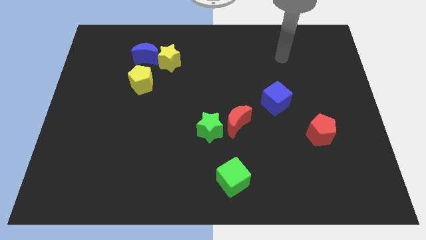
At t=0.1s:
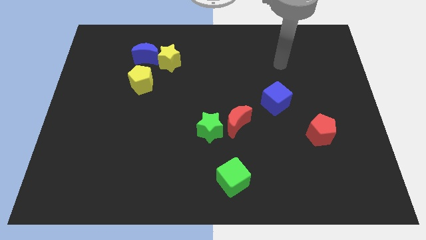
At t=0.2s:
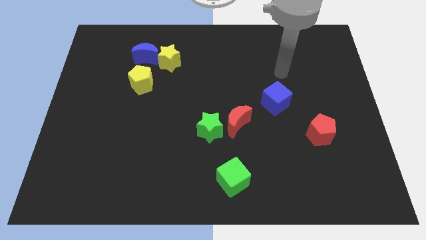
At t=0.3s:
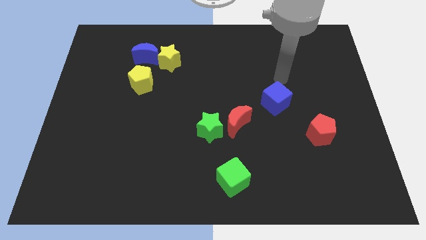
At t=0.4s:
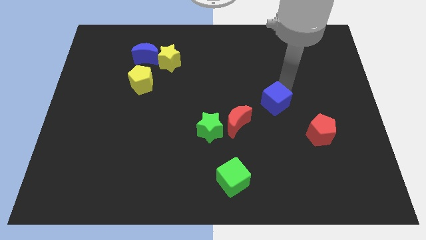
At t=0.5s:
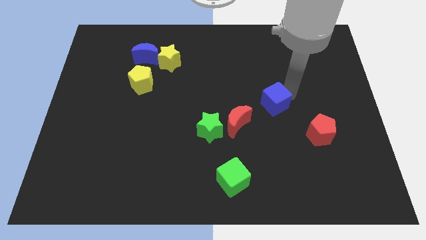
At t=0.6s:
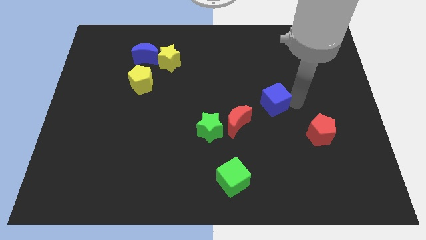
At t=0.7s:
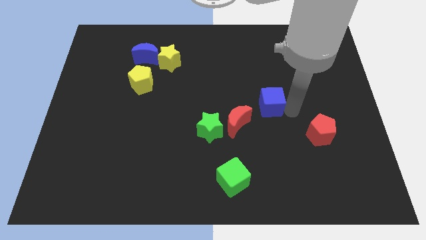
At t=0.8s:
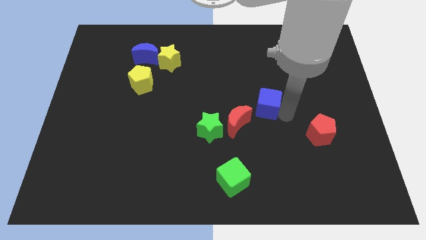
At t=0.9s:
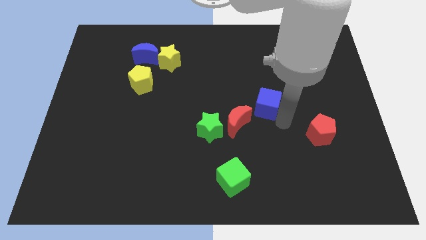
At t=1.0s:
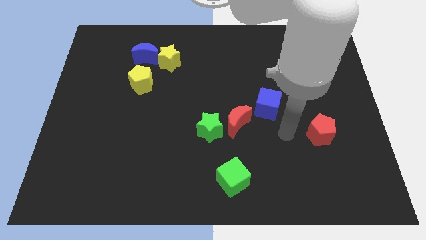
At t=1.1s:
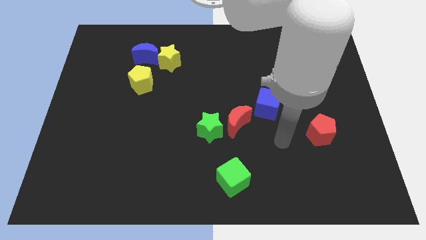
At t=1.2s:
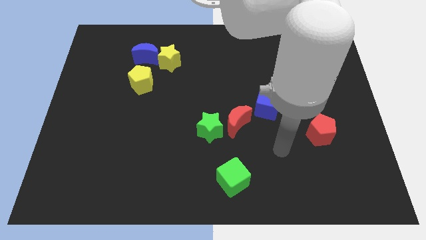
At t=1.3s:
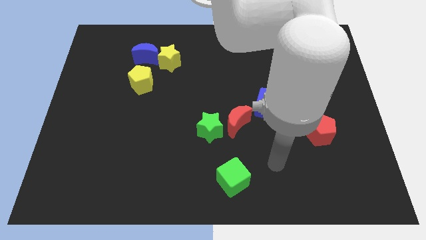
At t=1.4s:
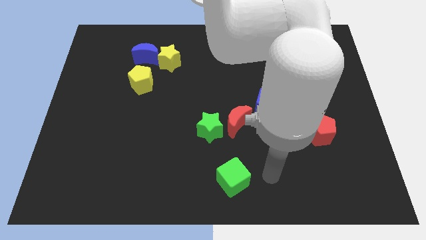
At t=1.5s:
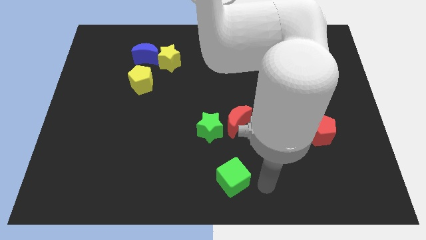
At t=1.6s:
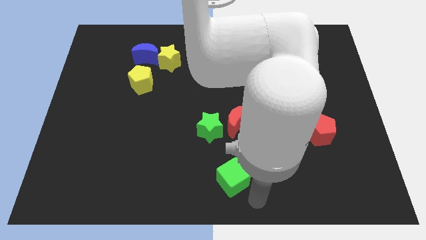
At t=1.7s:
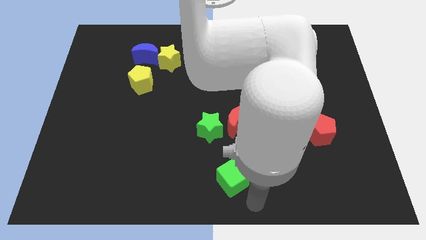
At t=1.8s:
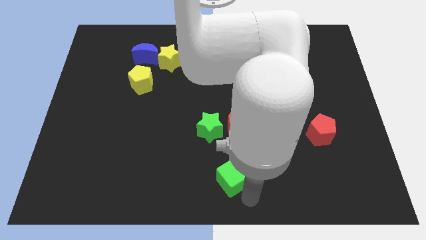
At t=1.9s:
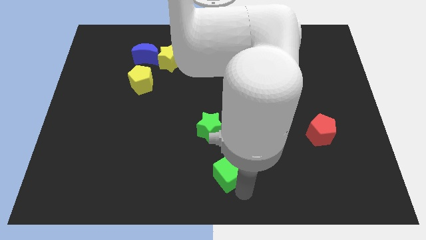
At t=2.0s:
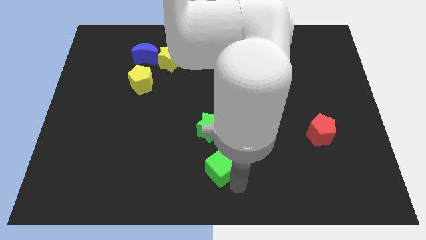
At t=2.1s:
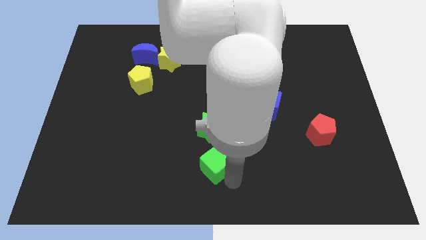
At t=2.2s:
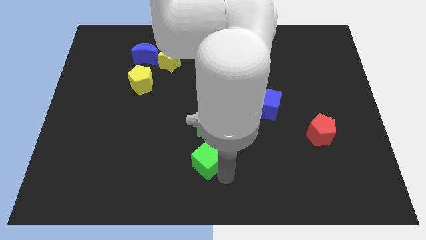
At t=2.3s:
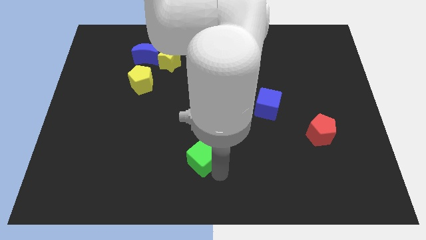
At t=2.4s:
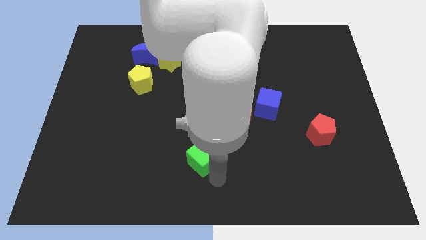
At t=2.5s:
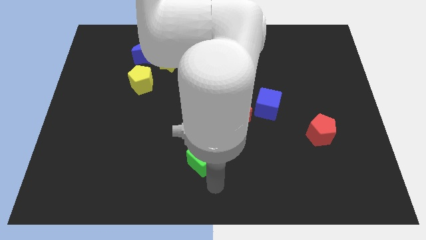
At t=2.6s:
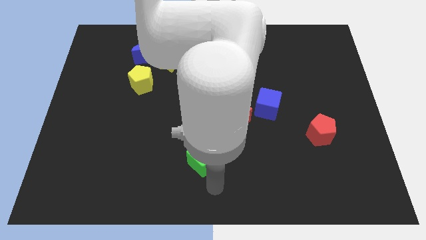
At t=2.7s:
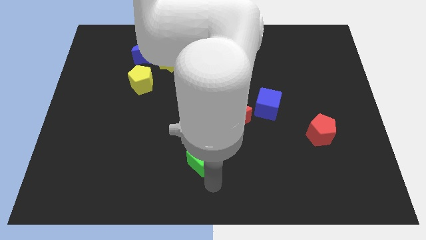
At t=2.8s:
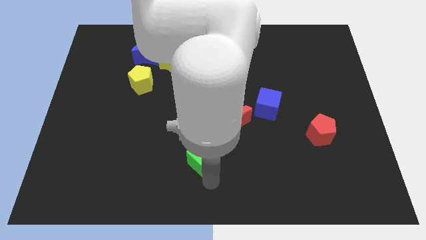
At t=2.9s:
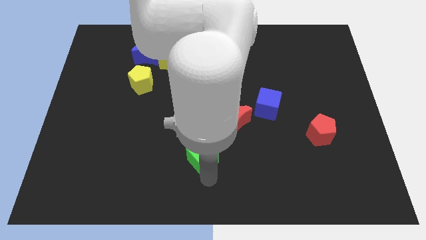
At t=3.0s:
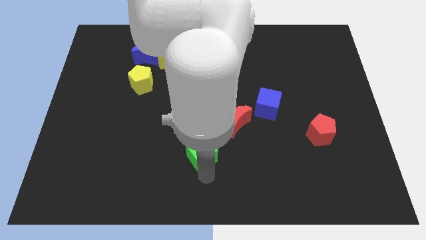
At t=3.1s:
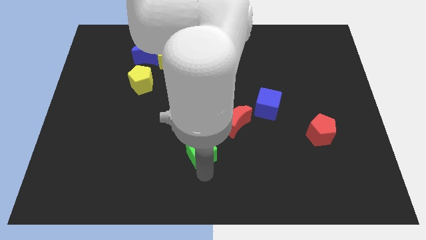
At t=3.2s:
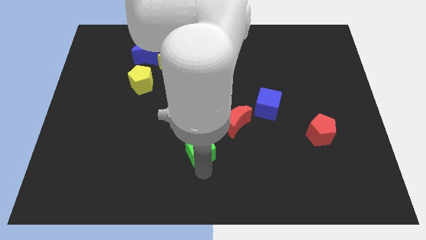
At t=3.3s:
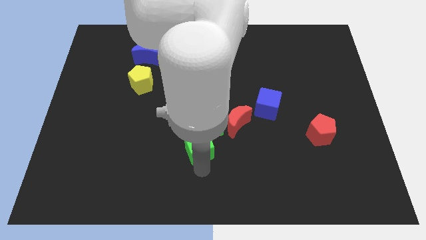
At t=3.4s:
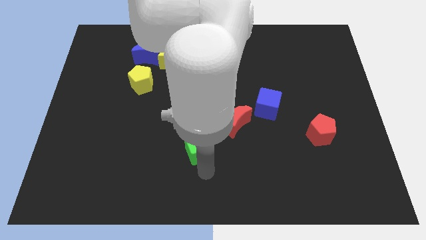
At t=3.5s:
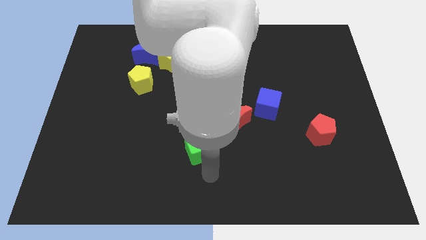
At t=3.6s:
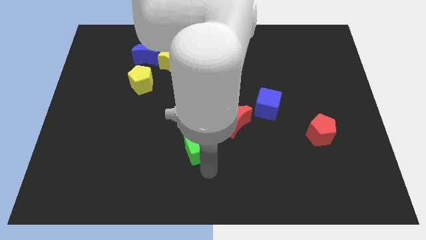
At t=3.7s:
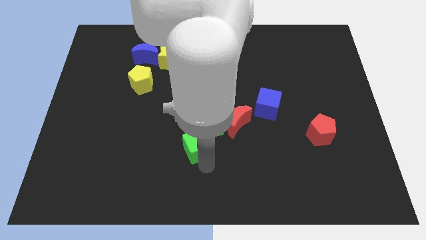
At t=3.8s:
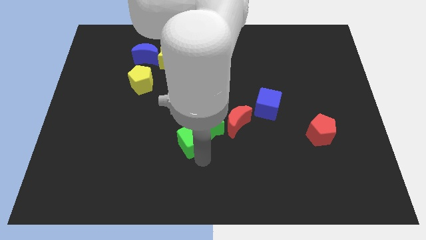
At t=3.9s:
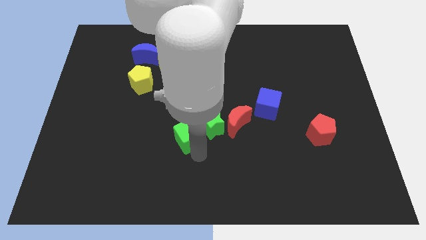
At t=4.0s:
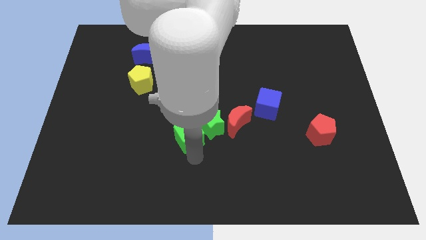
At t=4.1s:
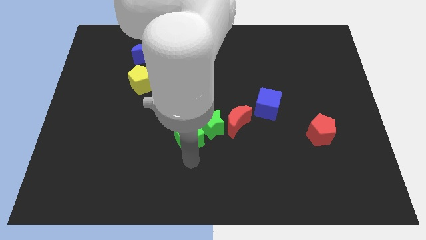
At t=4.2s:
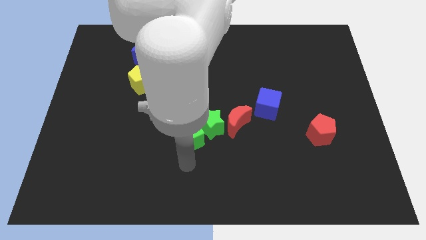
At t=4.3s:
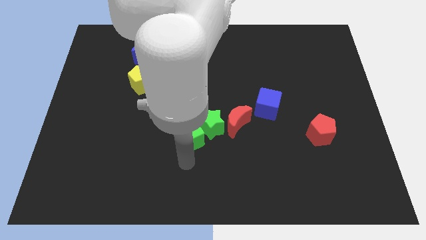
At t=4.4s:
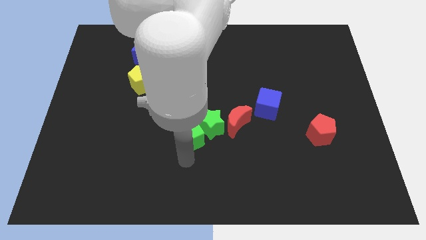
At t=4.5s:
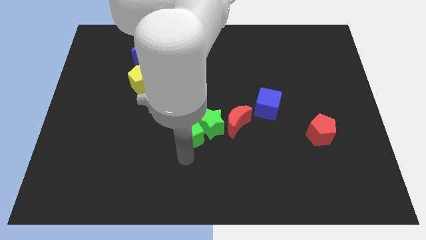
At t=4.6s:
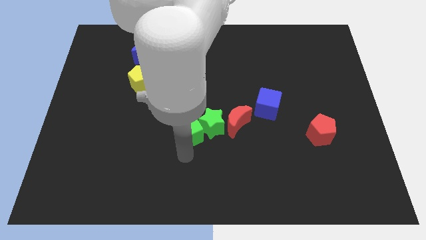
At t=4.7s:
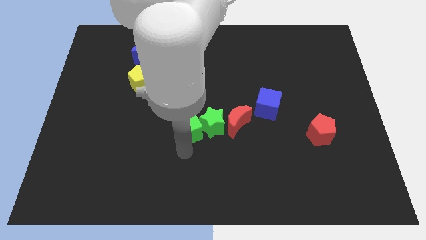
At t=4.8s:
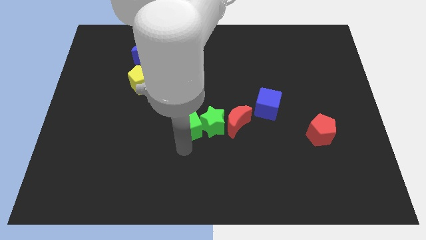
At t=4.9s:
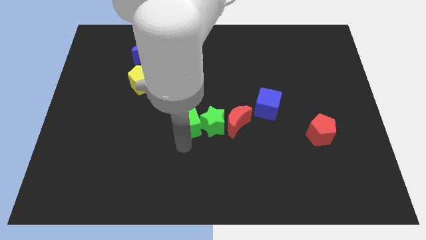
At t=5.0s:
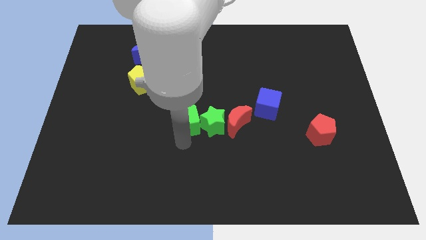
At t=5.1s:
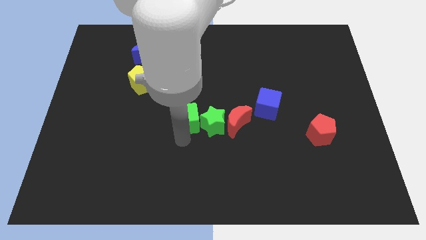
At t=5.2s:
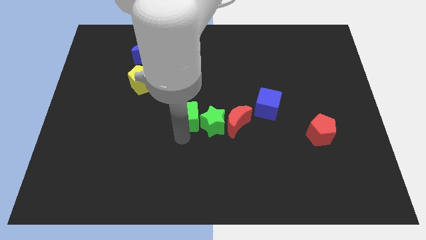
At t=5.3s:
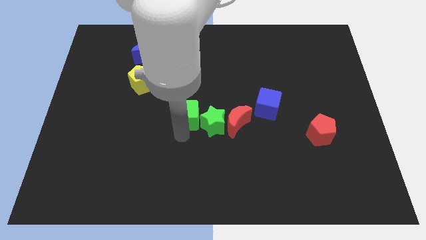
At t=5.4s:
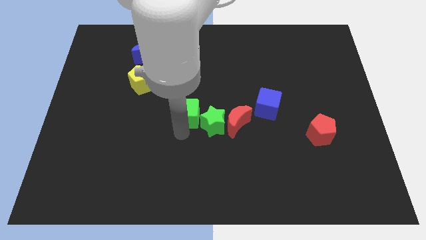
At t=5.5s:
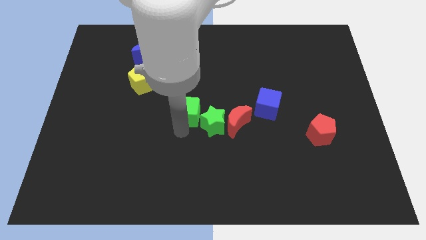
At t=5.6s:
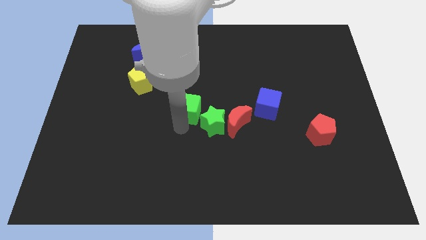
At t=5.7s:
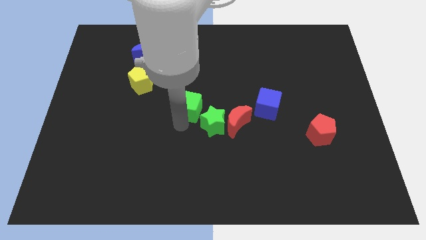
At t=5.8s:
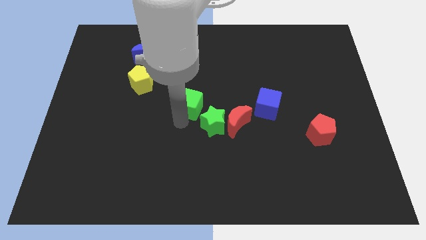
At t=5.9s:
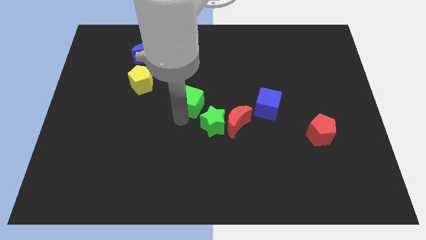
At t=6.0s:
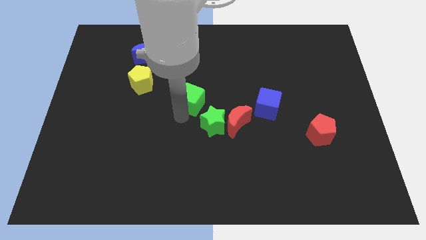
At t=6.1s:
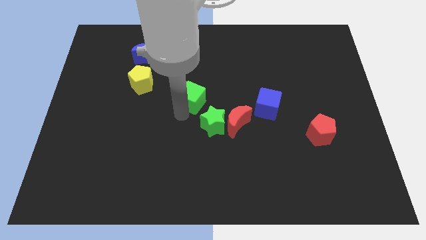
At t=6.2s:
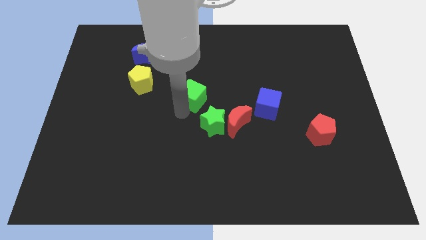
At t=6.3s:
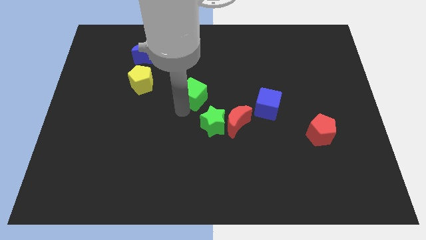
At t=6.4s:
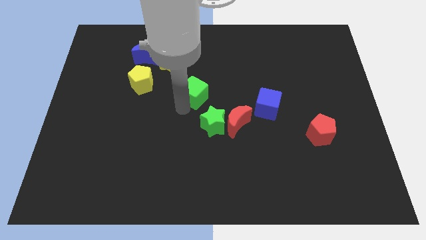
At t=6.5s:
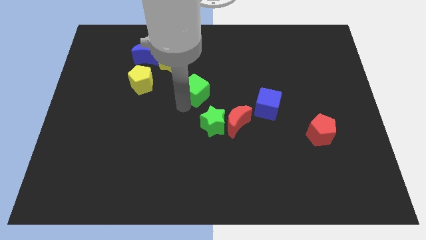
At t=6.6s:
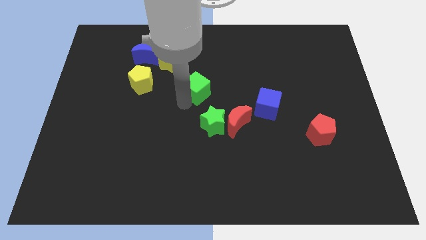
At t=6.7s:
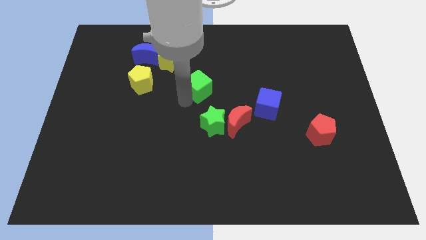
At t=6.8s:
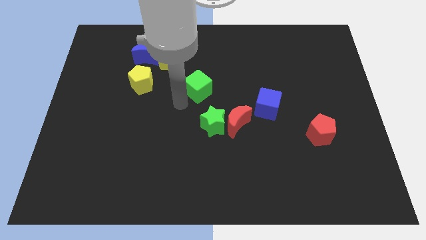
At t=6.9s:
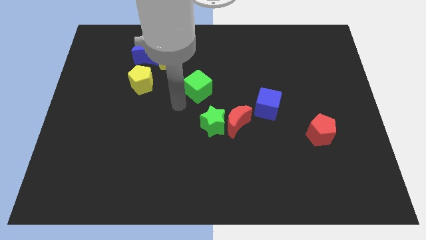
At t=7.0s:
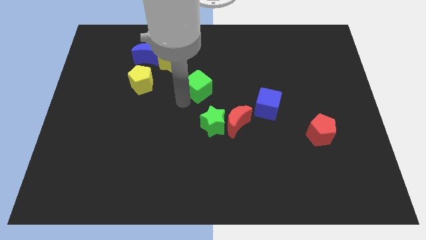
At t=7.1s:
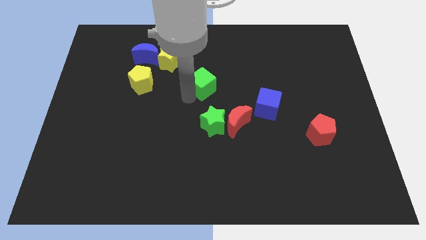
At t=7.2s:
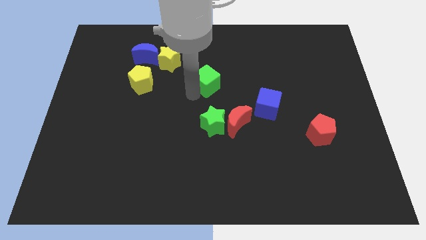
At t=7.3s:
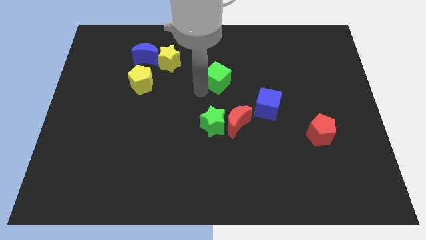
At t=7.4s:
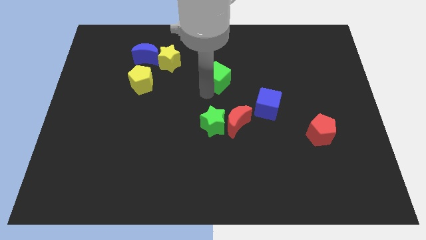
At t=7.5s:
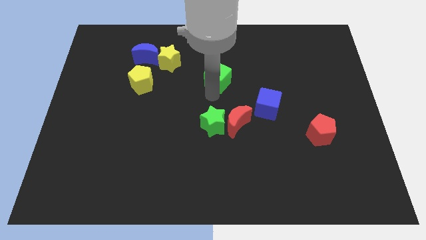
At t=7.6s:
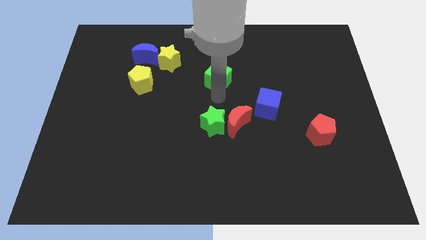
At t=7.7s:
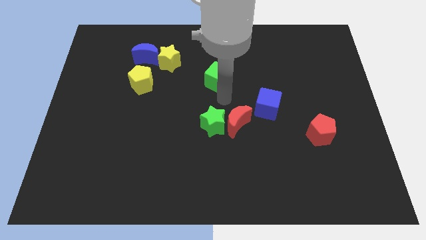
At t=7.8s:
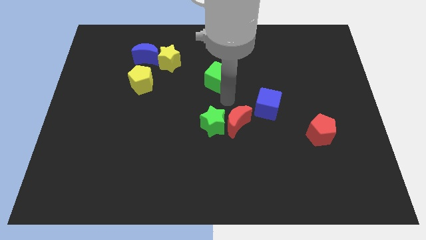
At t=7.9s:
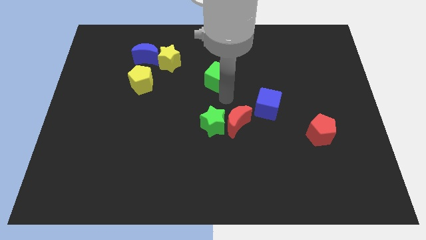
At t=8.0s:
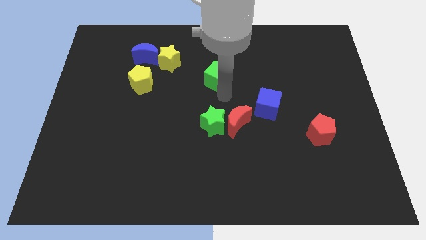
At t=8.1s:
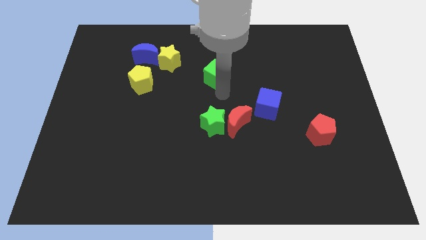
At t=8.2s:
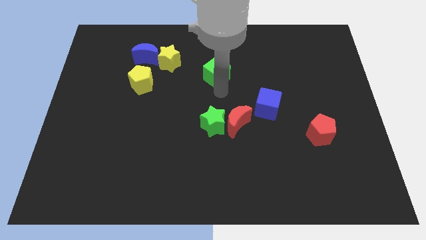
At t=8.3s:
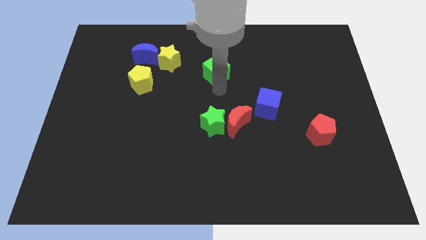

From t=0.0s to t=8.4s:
slide the green cube to the right side of the yellow star
